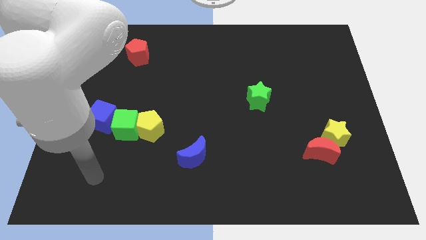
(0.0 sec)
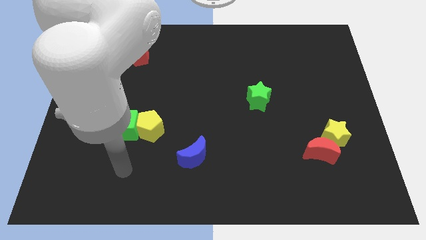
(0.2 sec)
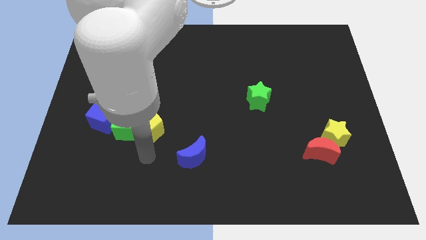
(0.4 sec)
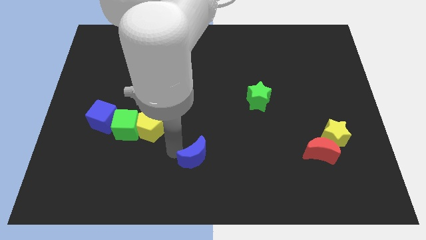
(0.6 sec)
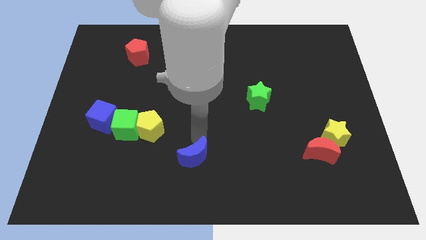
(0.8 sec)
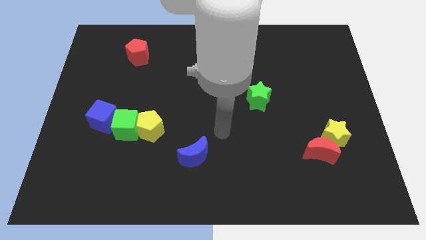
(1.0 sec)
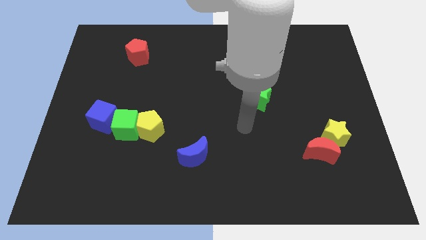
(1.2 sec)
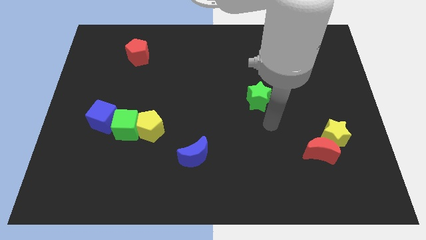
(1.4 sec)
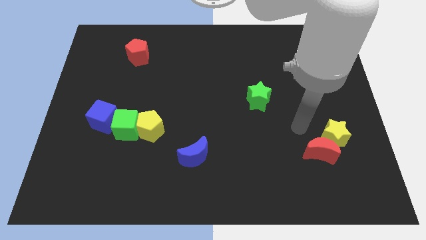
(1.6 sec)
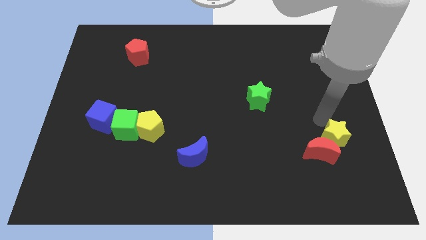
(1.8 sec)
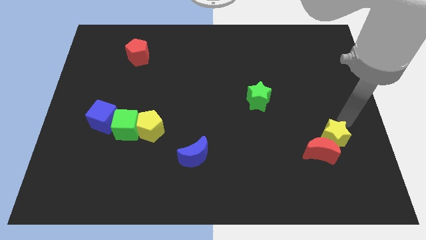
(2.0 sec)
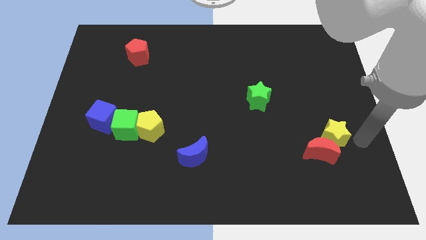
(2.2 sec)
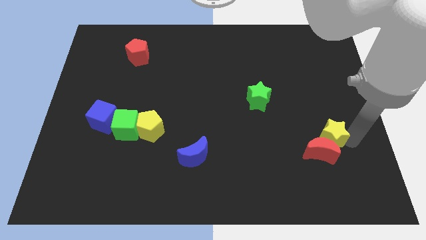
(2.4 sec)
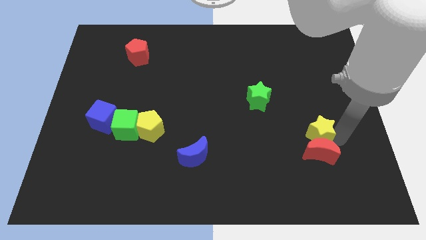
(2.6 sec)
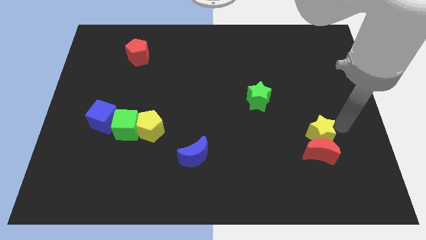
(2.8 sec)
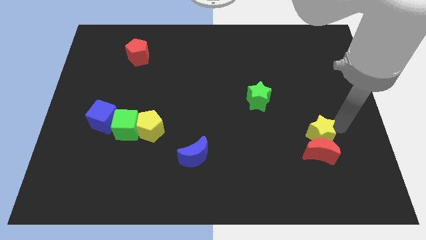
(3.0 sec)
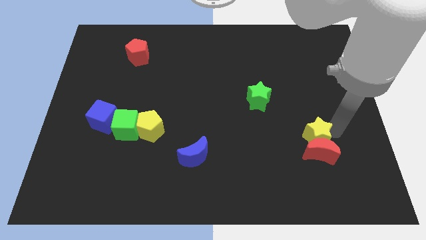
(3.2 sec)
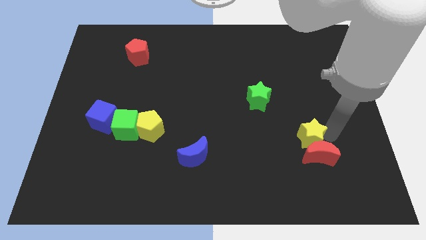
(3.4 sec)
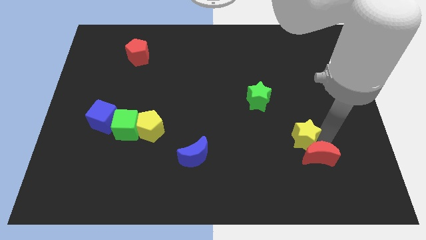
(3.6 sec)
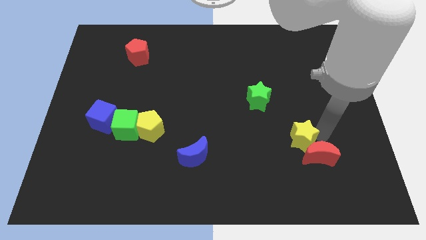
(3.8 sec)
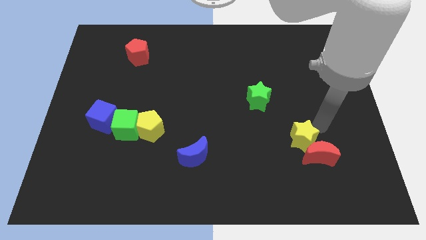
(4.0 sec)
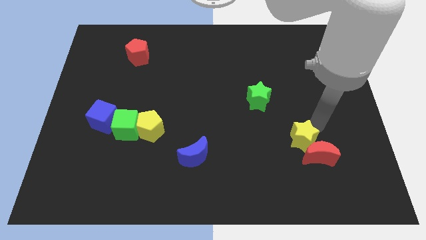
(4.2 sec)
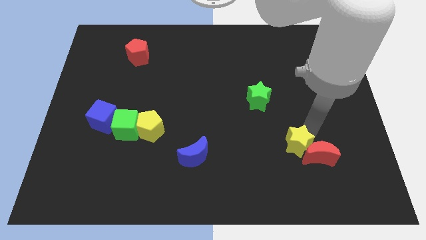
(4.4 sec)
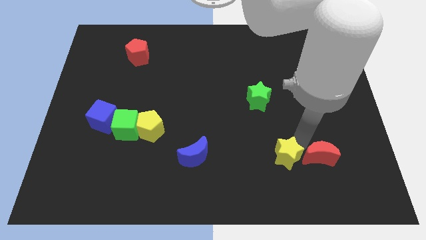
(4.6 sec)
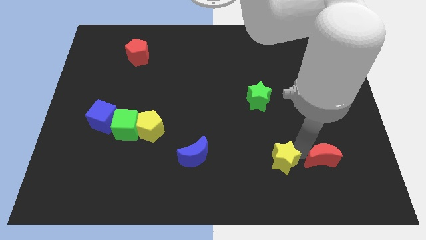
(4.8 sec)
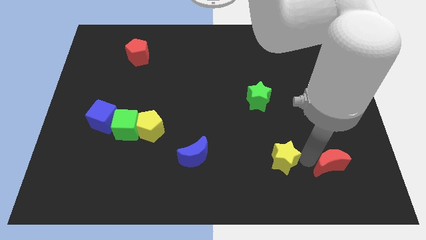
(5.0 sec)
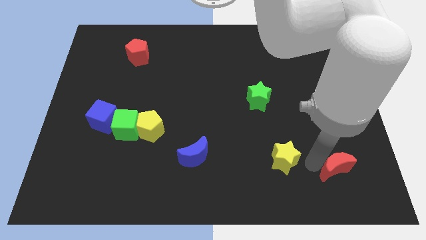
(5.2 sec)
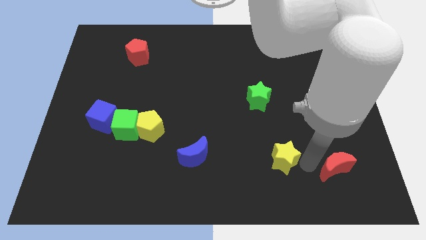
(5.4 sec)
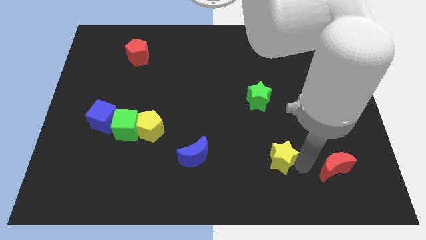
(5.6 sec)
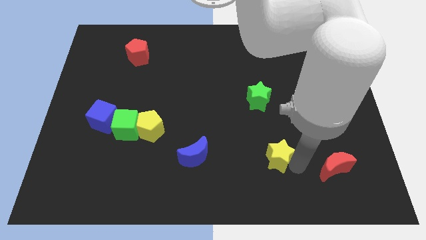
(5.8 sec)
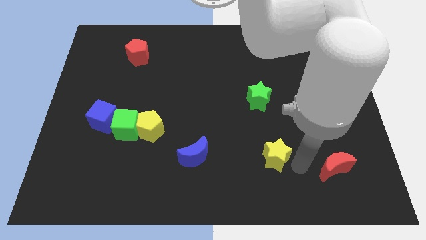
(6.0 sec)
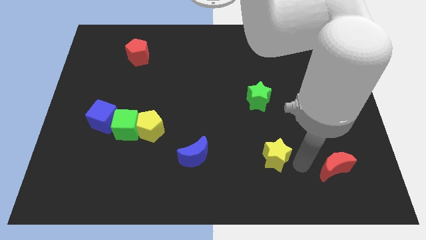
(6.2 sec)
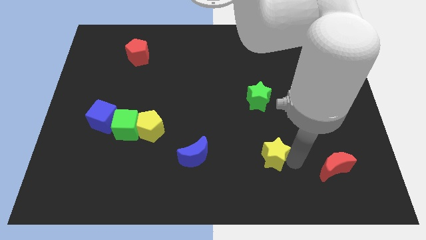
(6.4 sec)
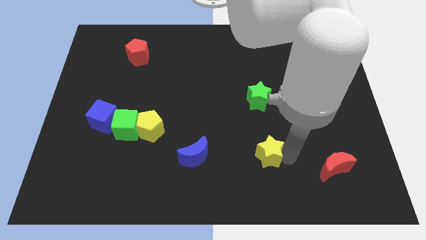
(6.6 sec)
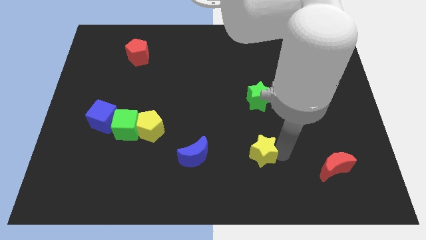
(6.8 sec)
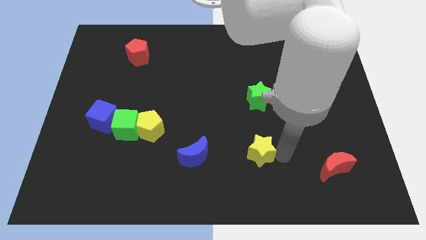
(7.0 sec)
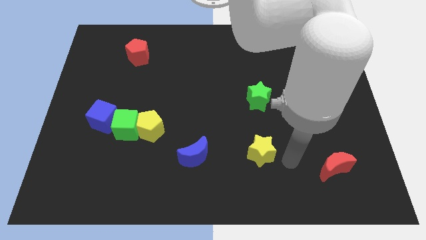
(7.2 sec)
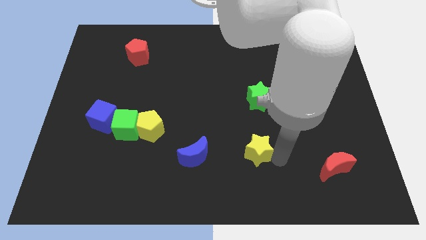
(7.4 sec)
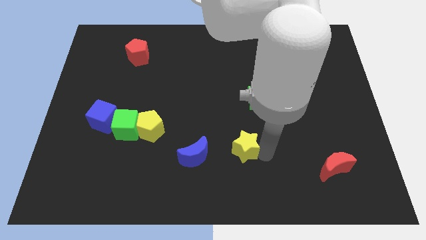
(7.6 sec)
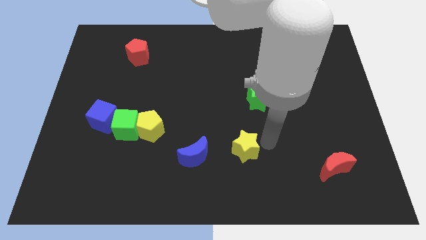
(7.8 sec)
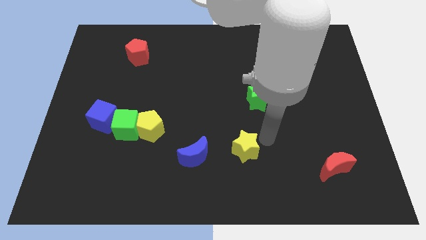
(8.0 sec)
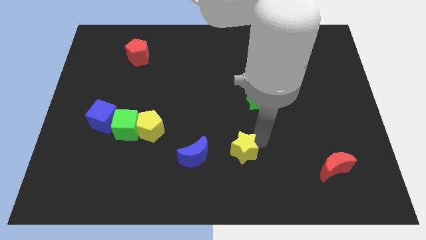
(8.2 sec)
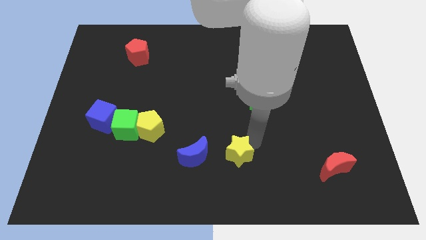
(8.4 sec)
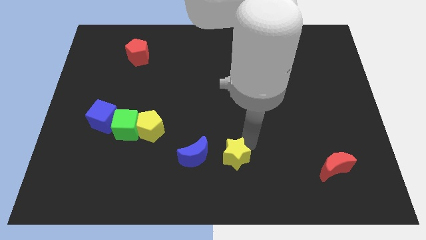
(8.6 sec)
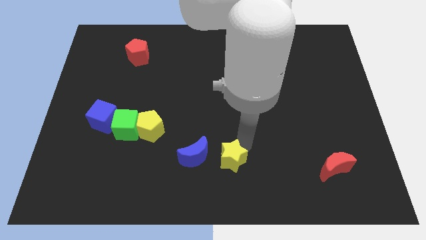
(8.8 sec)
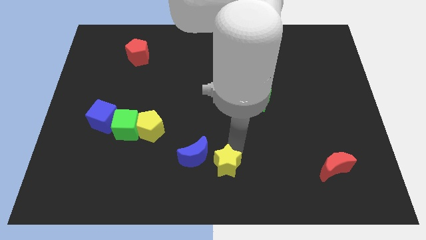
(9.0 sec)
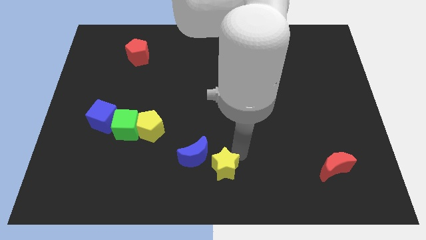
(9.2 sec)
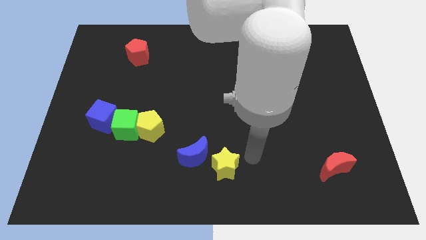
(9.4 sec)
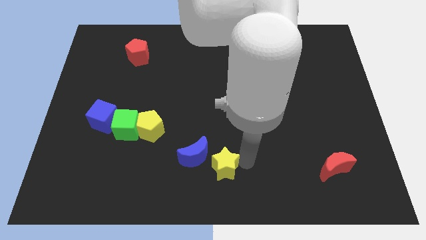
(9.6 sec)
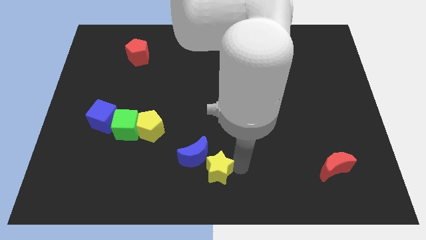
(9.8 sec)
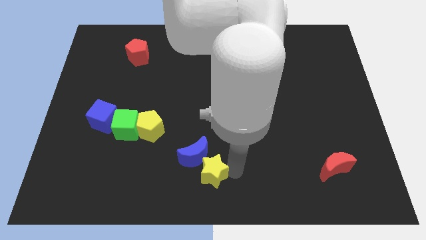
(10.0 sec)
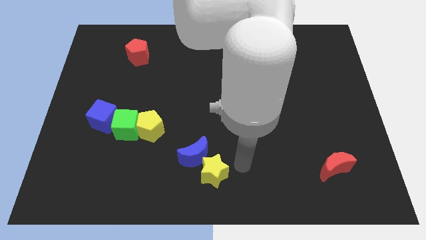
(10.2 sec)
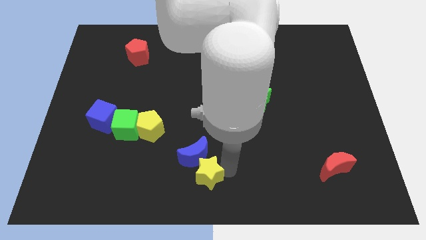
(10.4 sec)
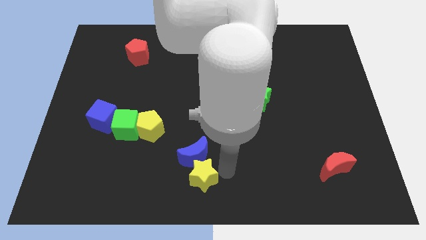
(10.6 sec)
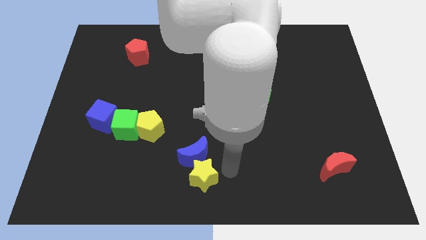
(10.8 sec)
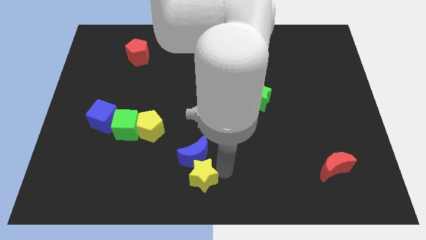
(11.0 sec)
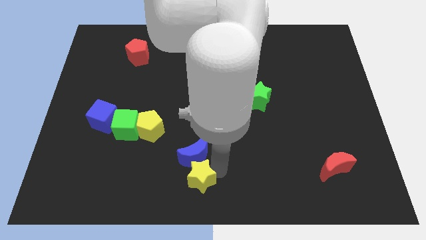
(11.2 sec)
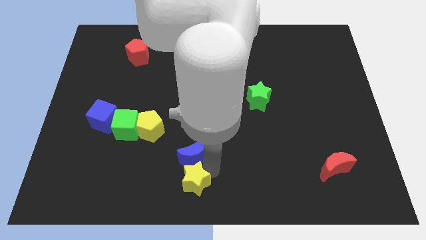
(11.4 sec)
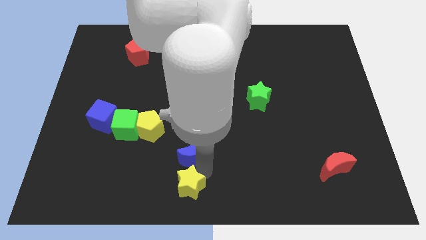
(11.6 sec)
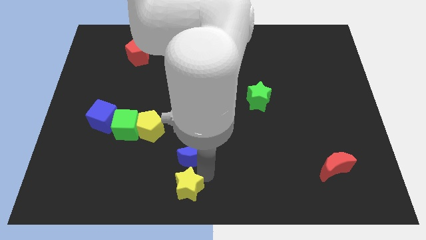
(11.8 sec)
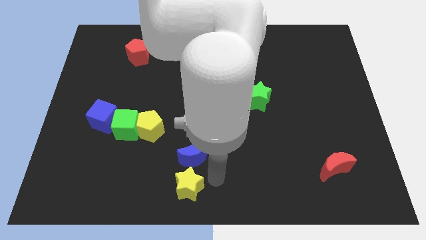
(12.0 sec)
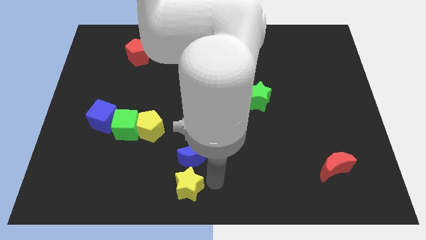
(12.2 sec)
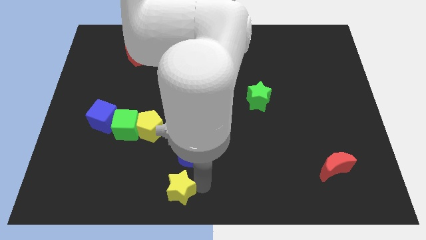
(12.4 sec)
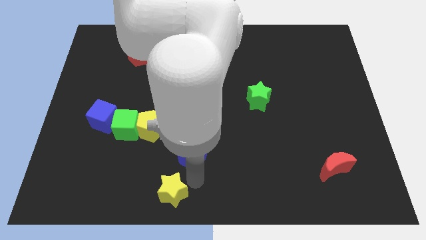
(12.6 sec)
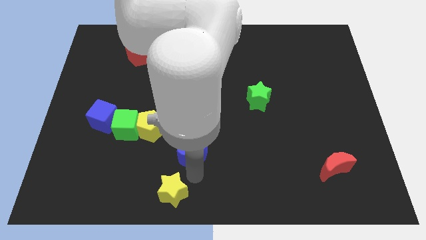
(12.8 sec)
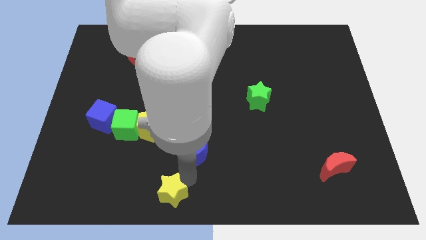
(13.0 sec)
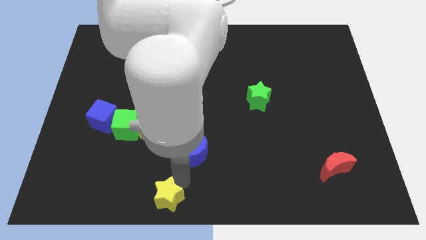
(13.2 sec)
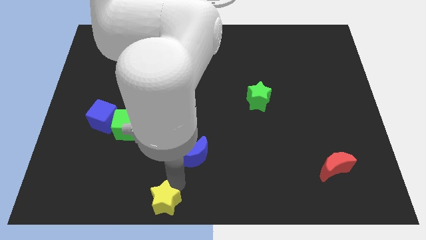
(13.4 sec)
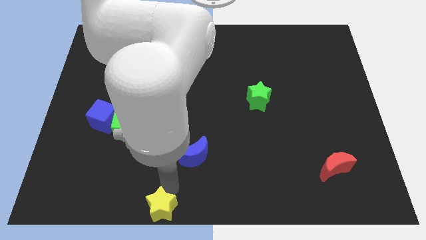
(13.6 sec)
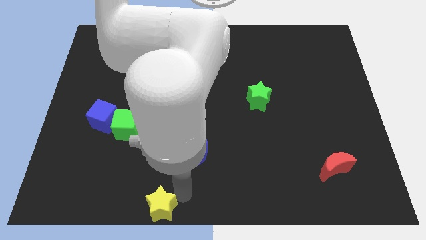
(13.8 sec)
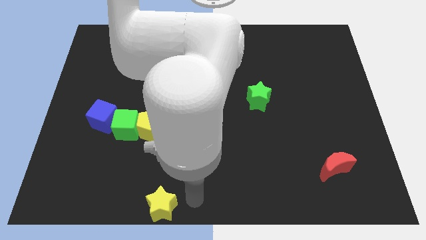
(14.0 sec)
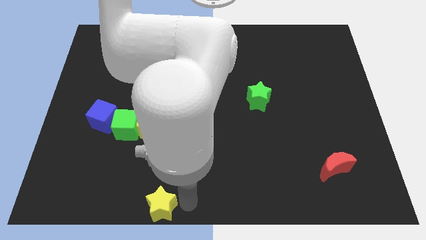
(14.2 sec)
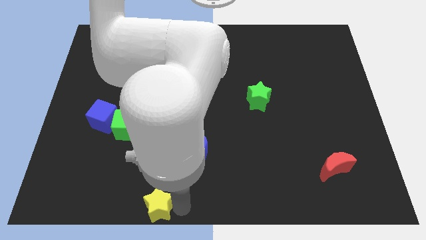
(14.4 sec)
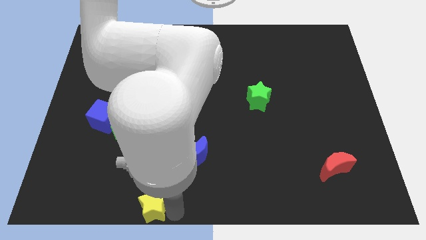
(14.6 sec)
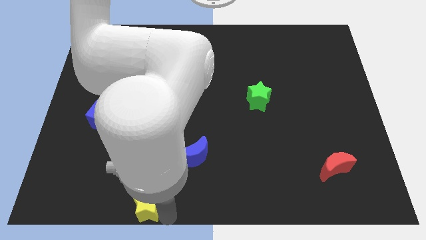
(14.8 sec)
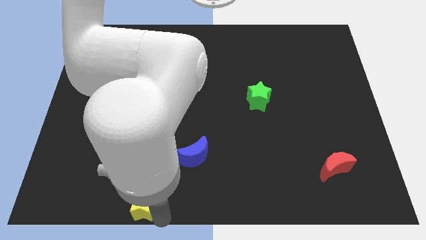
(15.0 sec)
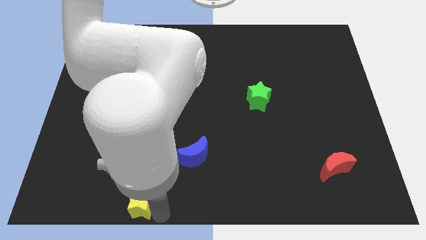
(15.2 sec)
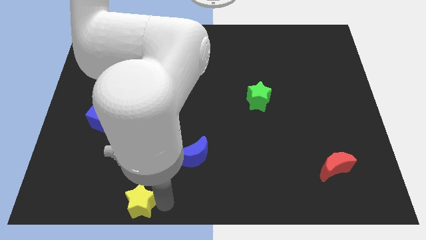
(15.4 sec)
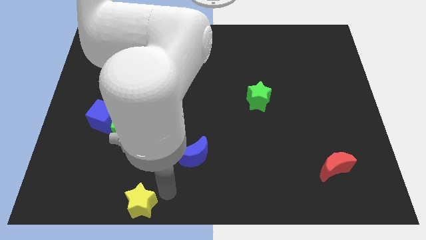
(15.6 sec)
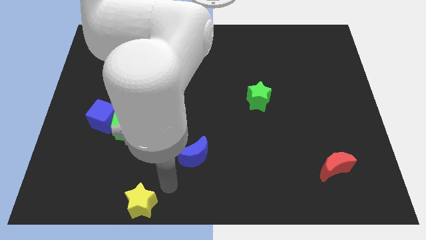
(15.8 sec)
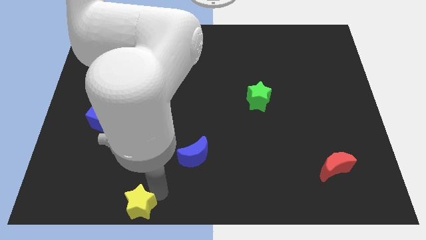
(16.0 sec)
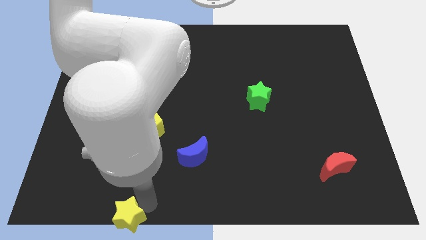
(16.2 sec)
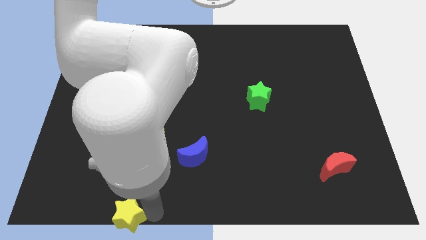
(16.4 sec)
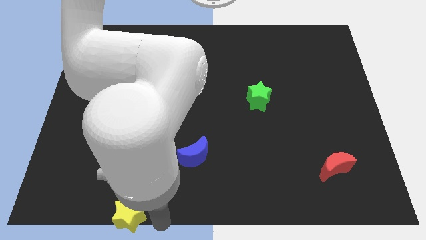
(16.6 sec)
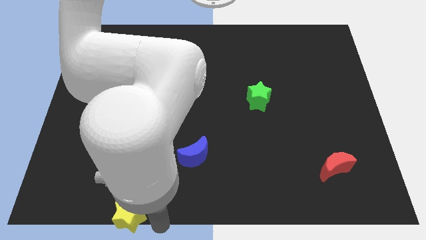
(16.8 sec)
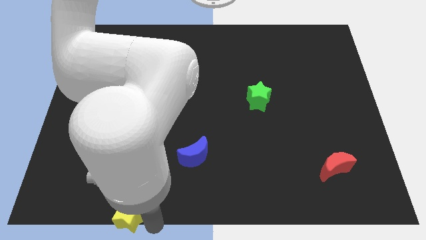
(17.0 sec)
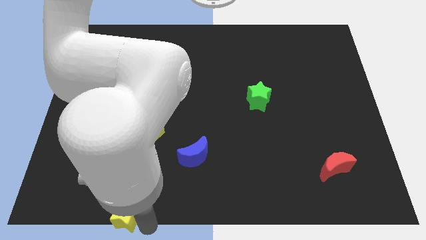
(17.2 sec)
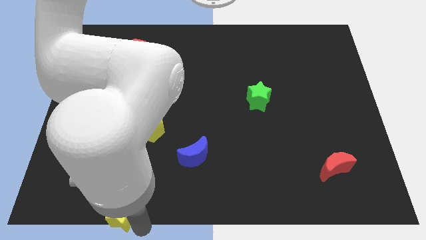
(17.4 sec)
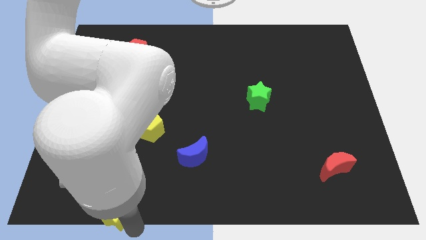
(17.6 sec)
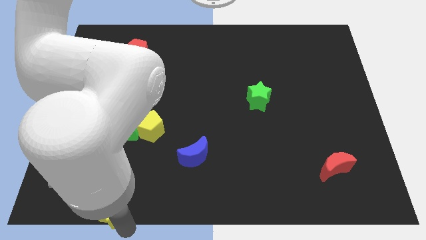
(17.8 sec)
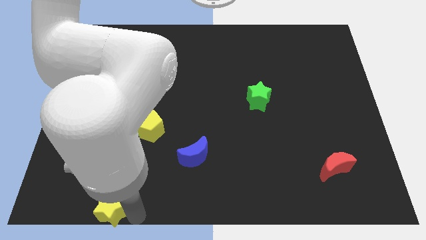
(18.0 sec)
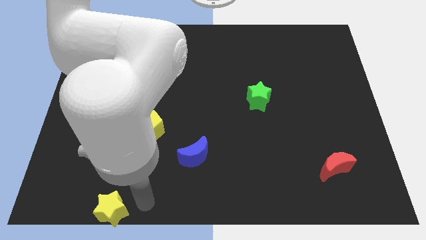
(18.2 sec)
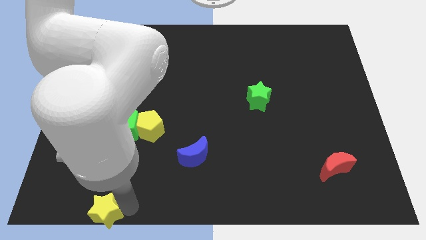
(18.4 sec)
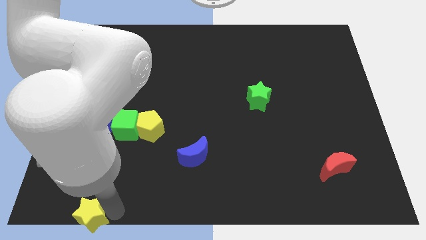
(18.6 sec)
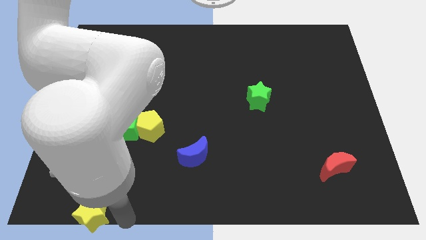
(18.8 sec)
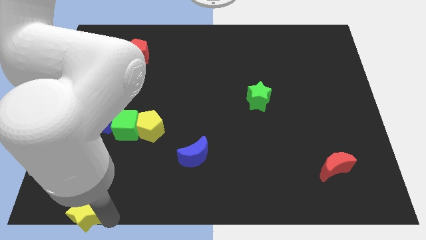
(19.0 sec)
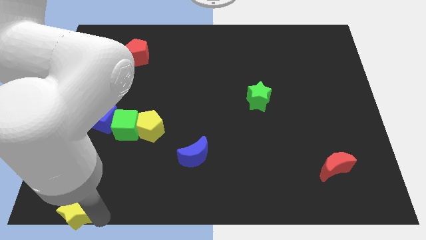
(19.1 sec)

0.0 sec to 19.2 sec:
move the yellow star to the bottom left of the board
